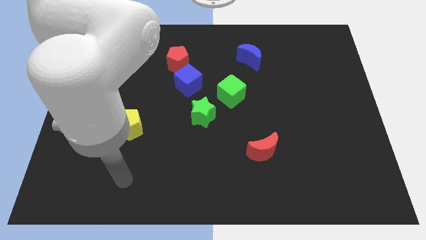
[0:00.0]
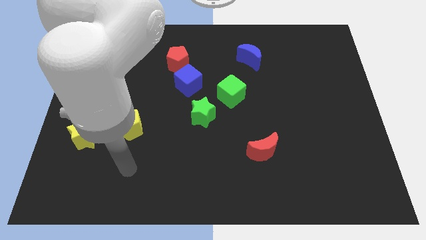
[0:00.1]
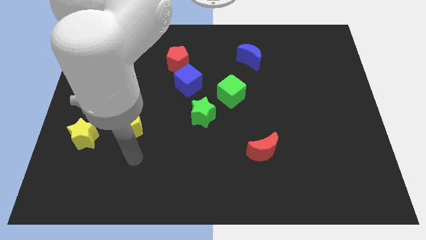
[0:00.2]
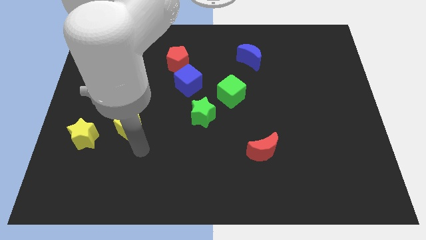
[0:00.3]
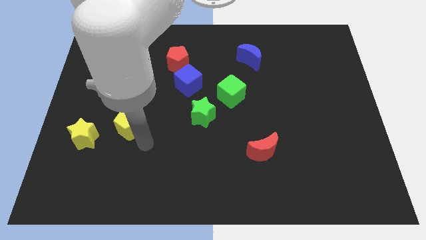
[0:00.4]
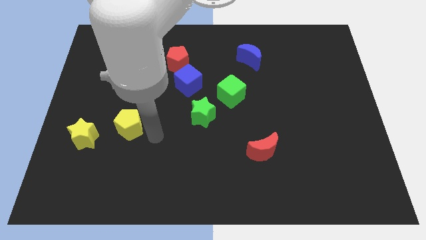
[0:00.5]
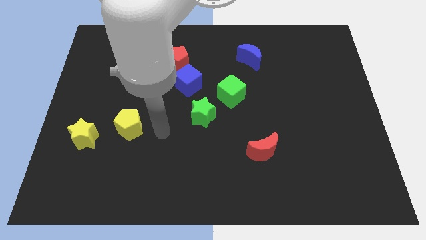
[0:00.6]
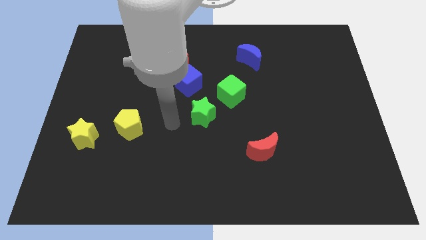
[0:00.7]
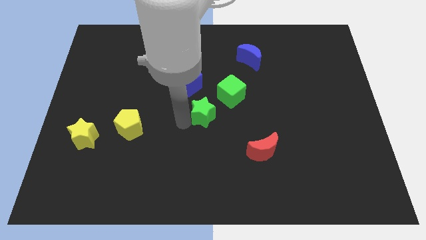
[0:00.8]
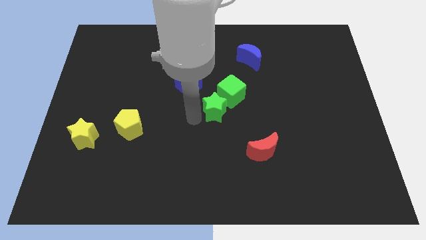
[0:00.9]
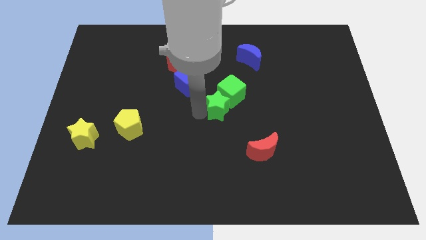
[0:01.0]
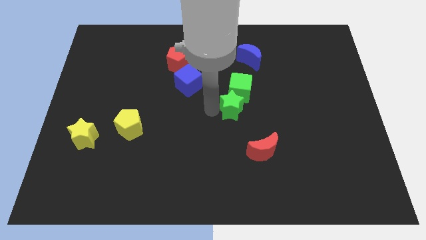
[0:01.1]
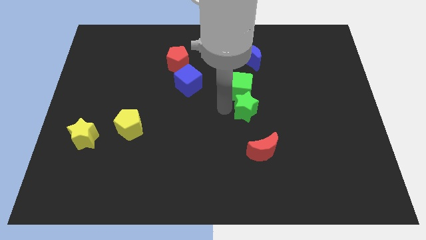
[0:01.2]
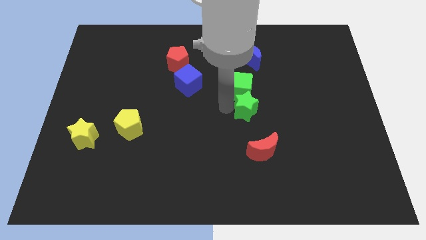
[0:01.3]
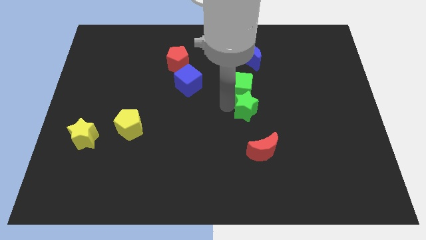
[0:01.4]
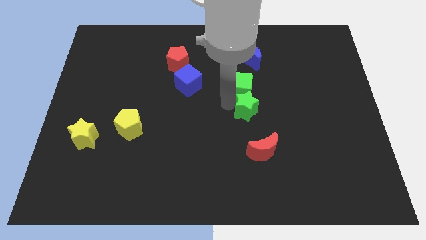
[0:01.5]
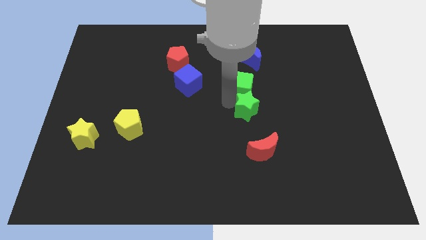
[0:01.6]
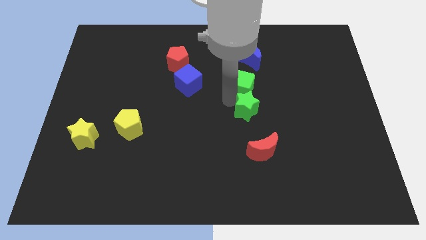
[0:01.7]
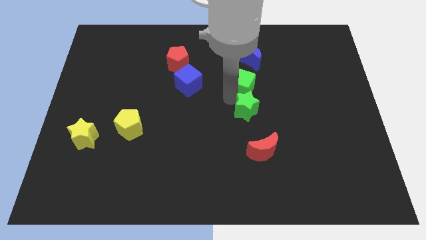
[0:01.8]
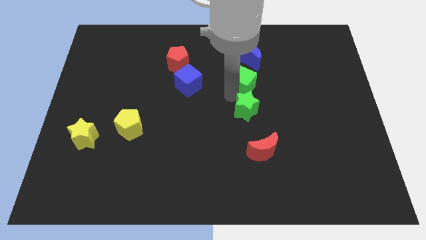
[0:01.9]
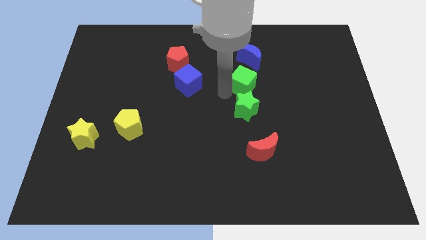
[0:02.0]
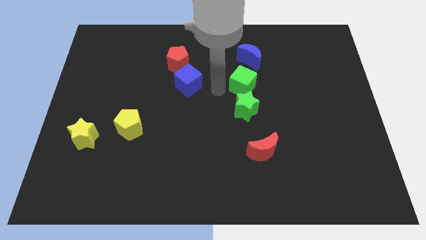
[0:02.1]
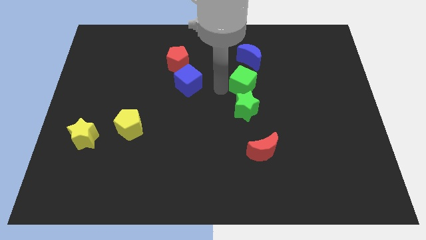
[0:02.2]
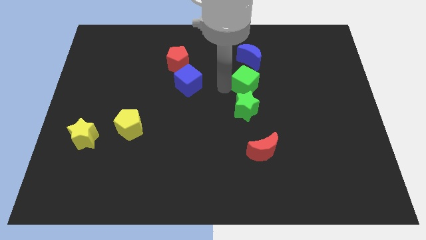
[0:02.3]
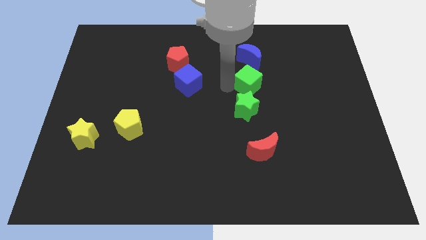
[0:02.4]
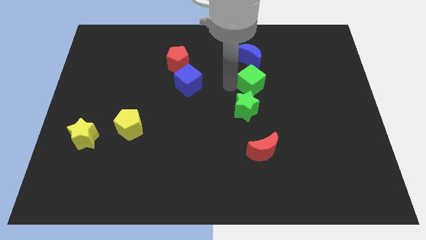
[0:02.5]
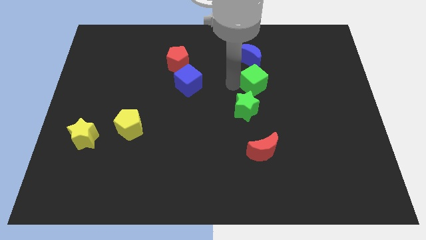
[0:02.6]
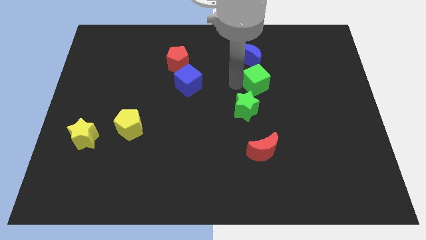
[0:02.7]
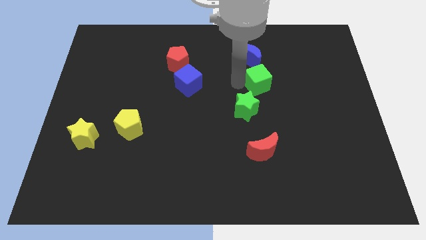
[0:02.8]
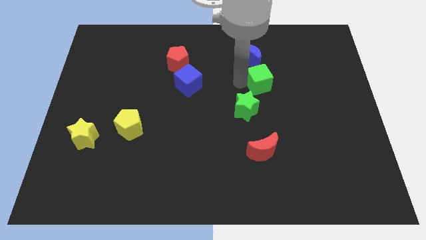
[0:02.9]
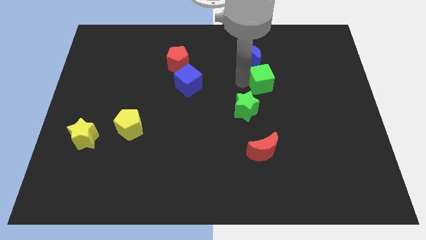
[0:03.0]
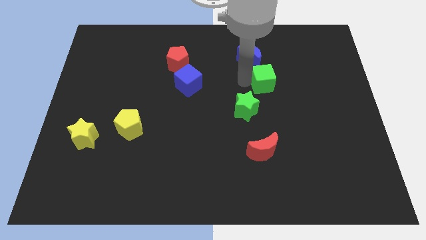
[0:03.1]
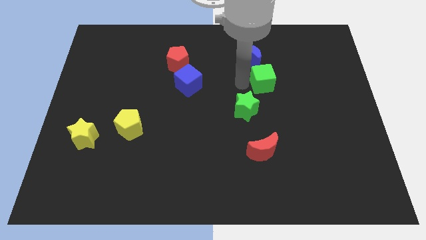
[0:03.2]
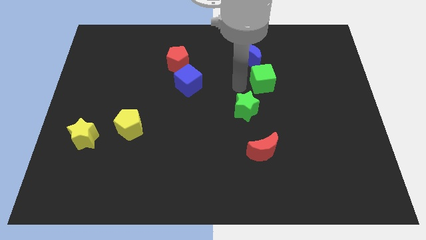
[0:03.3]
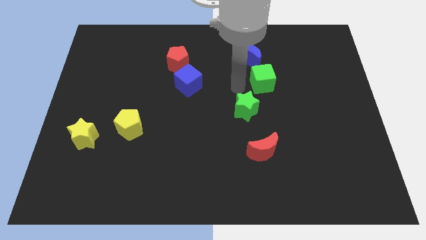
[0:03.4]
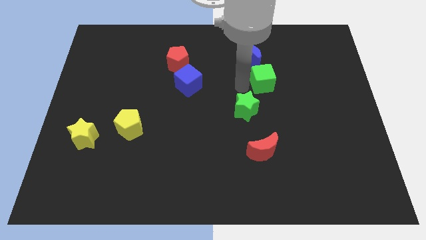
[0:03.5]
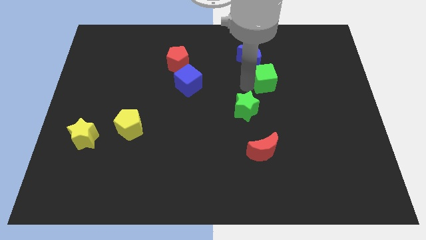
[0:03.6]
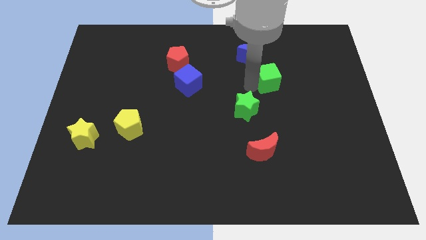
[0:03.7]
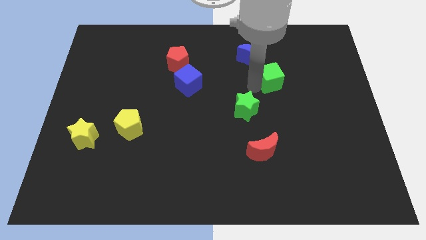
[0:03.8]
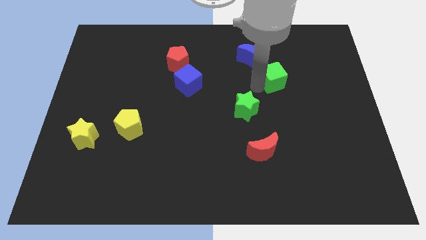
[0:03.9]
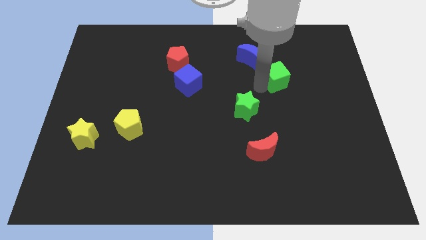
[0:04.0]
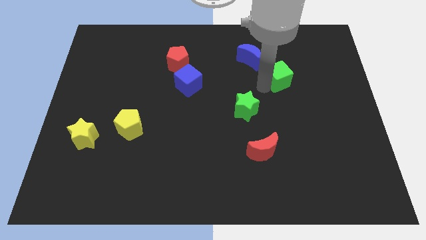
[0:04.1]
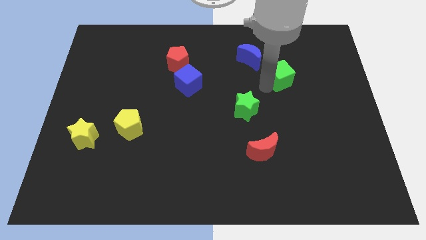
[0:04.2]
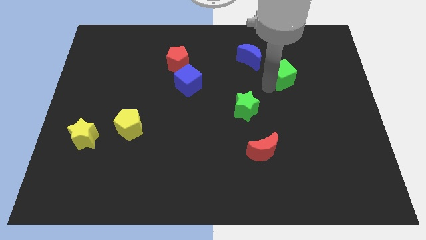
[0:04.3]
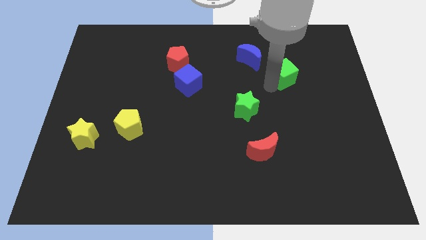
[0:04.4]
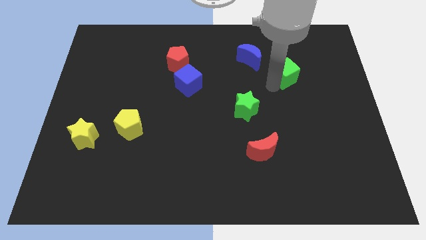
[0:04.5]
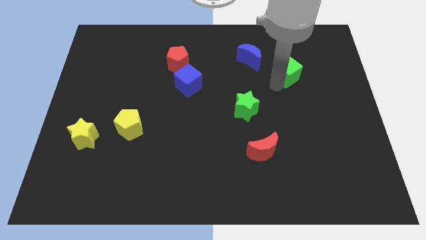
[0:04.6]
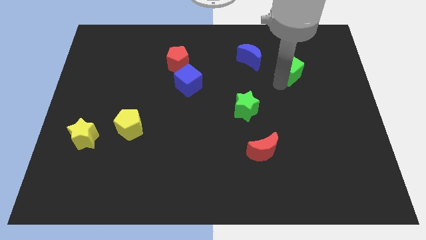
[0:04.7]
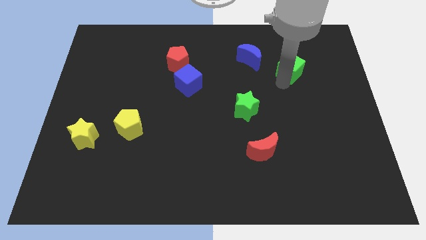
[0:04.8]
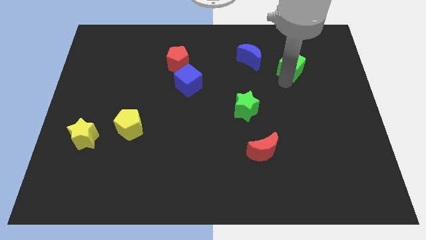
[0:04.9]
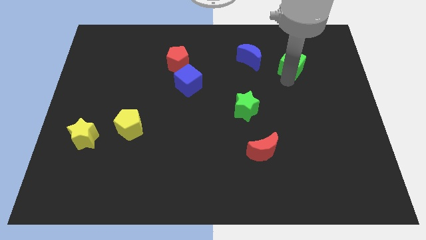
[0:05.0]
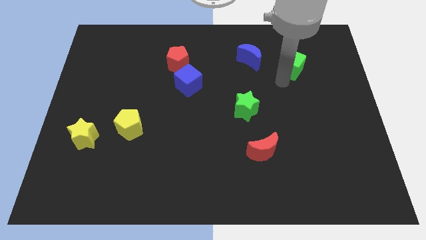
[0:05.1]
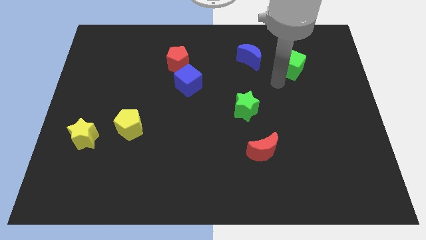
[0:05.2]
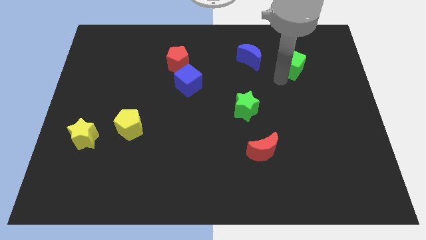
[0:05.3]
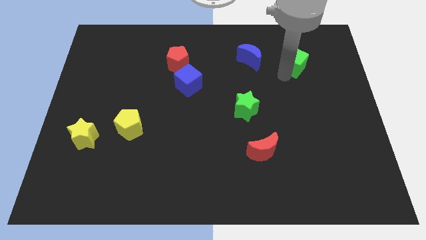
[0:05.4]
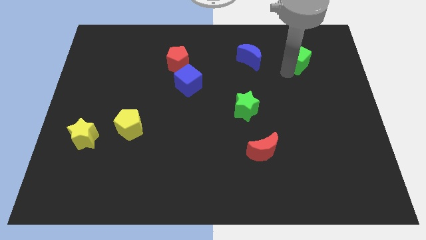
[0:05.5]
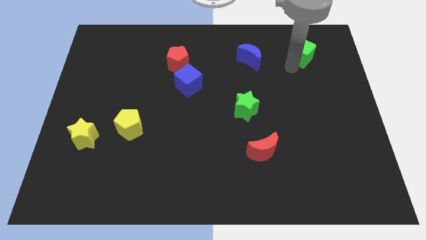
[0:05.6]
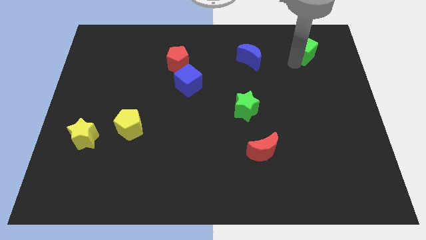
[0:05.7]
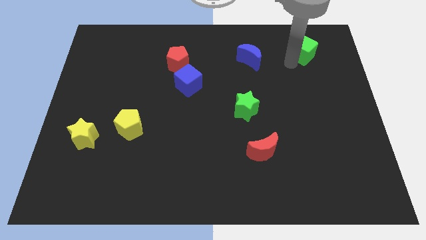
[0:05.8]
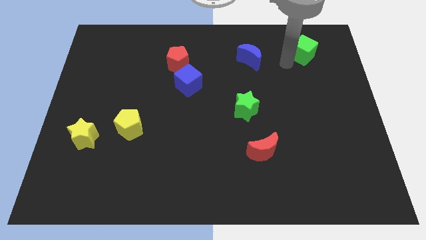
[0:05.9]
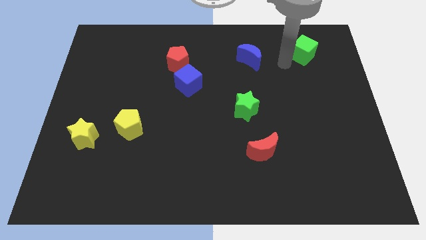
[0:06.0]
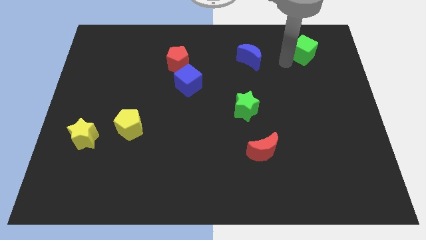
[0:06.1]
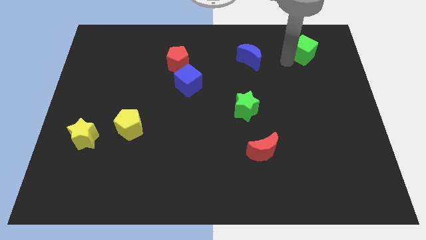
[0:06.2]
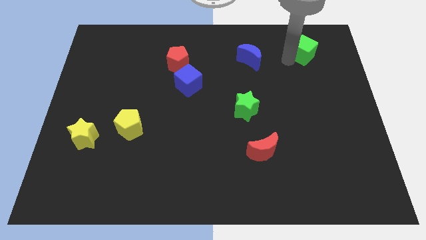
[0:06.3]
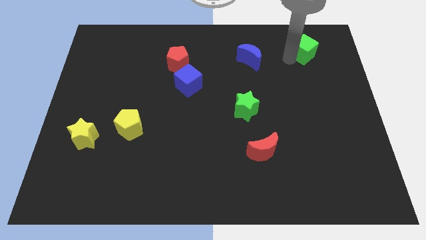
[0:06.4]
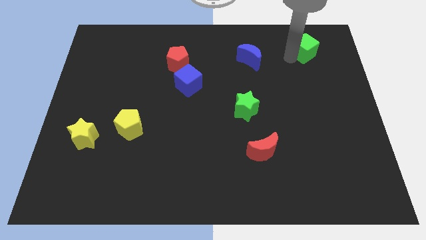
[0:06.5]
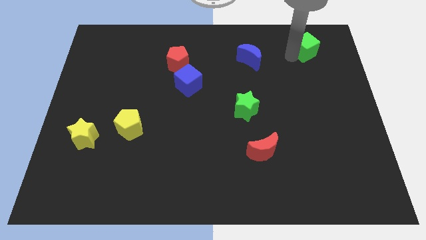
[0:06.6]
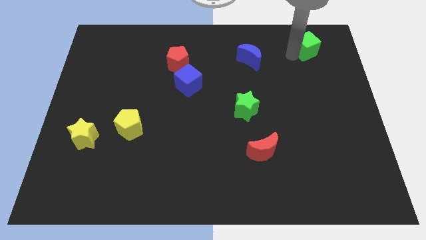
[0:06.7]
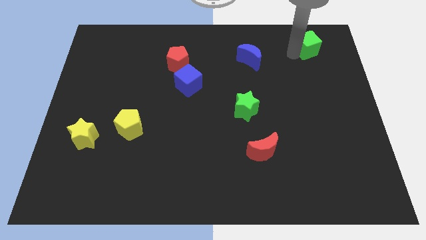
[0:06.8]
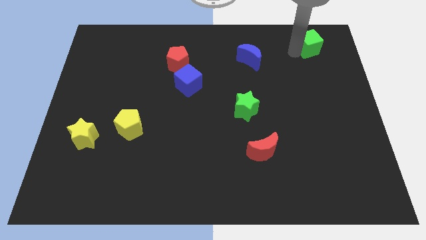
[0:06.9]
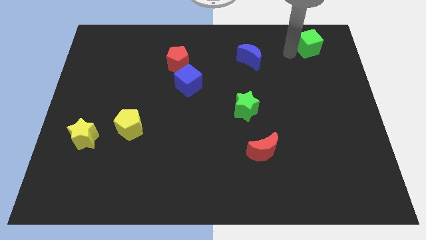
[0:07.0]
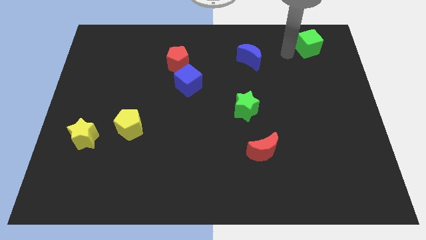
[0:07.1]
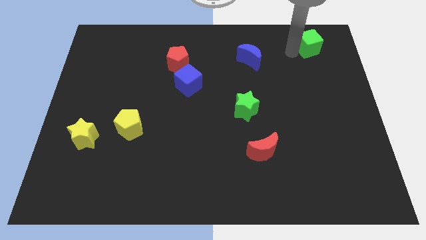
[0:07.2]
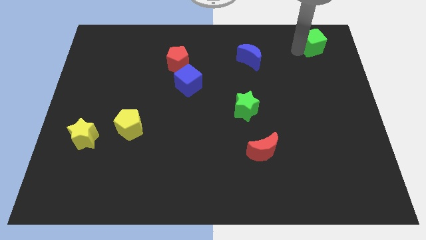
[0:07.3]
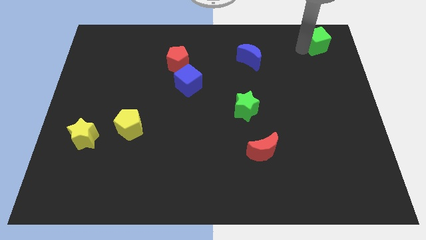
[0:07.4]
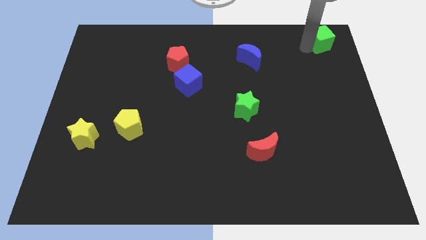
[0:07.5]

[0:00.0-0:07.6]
move the green cube to the top right corner
